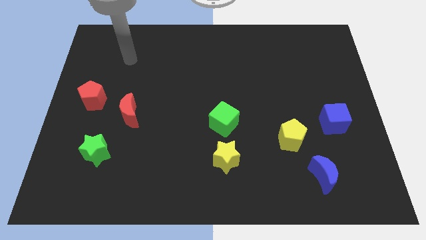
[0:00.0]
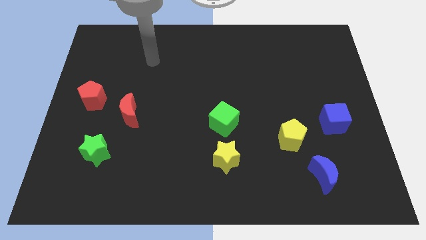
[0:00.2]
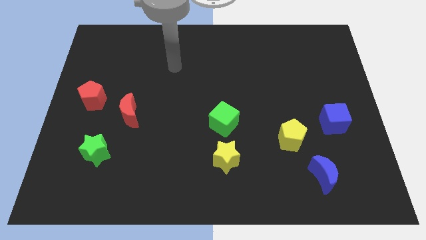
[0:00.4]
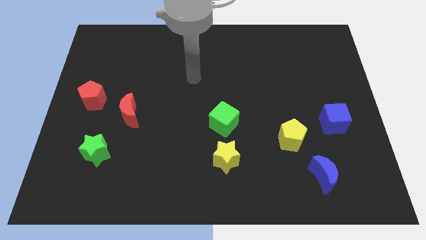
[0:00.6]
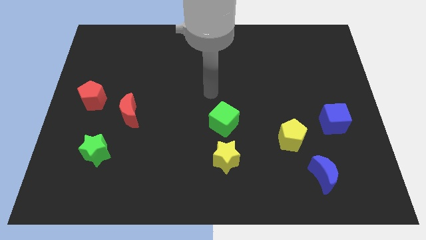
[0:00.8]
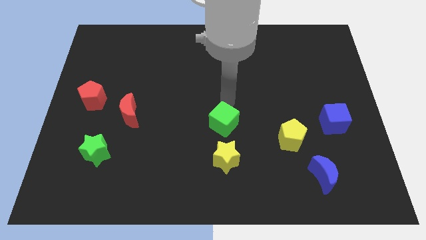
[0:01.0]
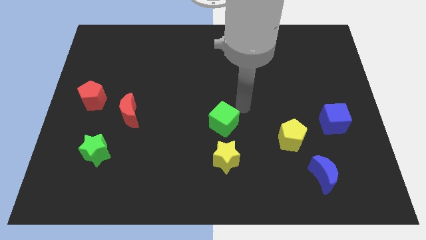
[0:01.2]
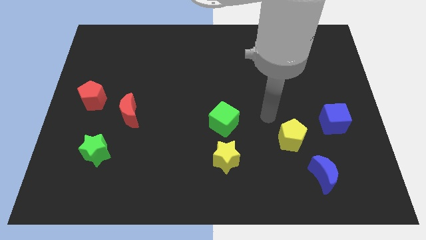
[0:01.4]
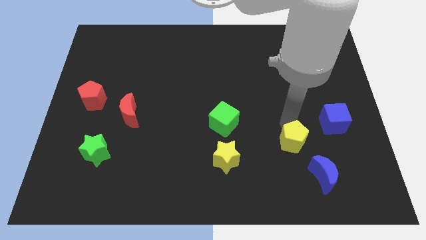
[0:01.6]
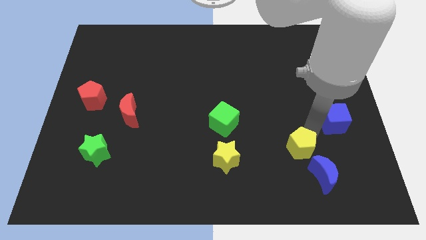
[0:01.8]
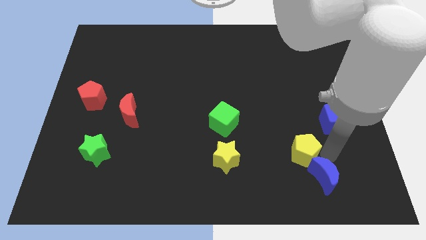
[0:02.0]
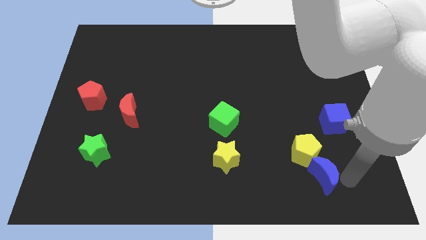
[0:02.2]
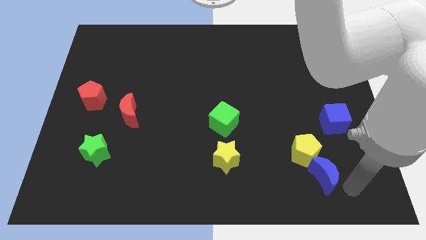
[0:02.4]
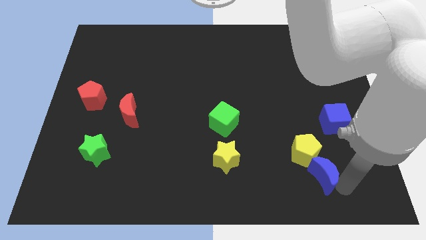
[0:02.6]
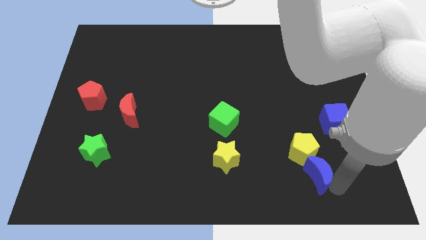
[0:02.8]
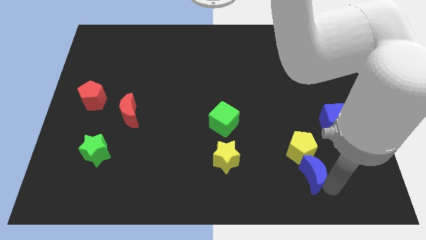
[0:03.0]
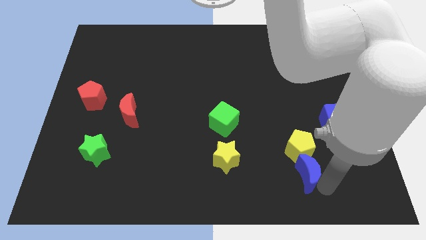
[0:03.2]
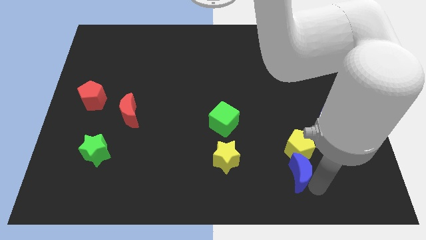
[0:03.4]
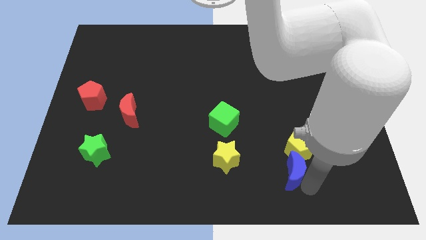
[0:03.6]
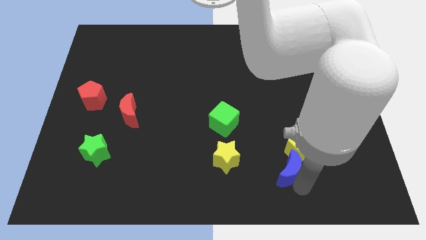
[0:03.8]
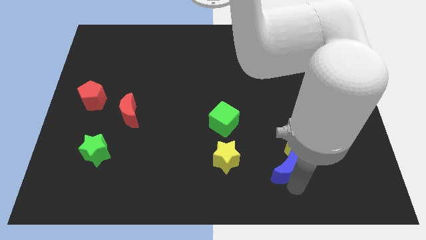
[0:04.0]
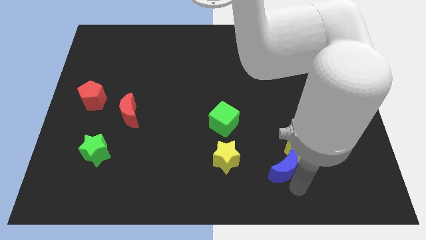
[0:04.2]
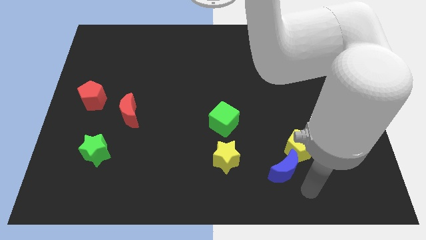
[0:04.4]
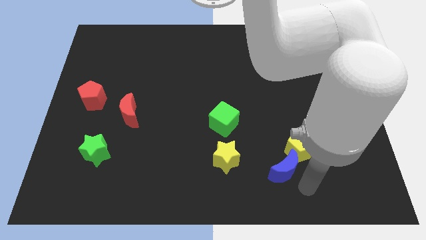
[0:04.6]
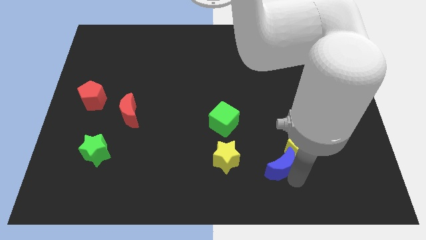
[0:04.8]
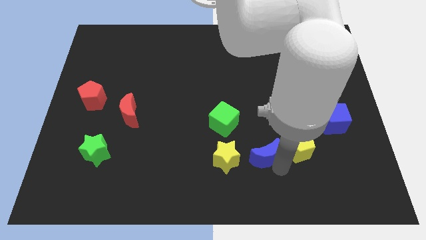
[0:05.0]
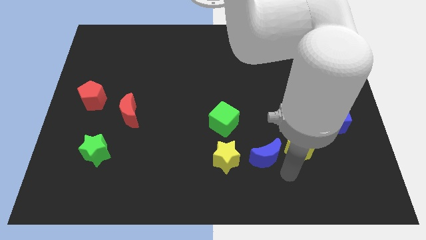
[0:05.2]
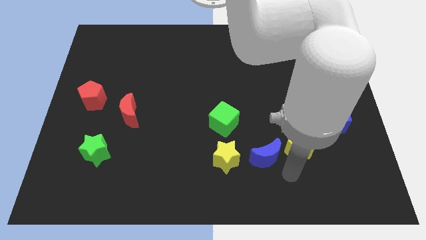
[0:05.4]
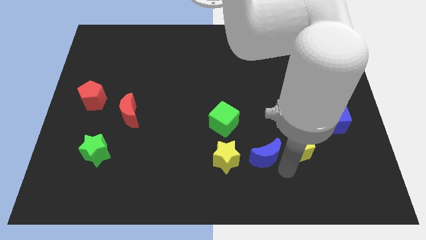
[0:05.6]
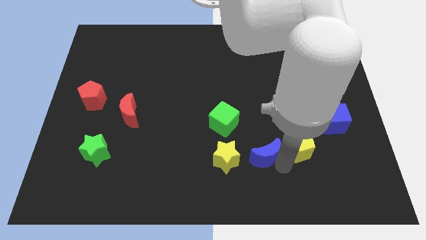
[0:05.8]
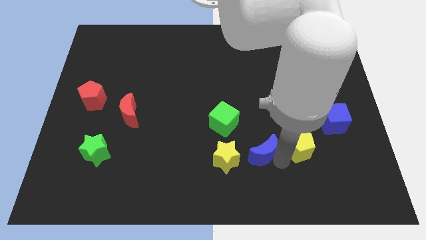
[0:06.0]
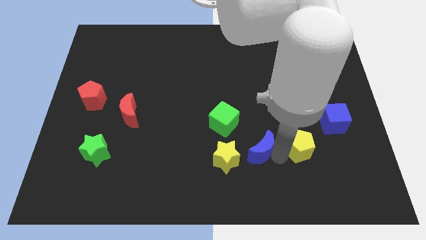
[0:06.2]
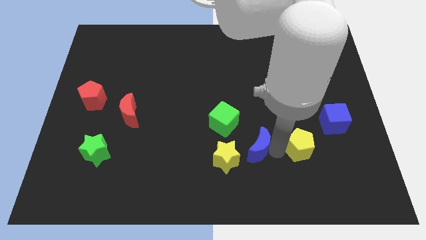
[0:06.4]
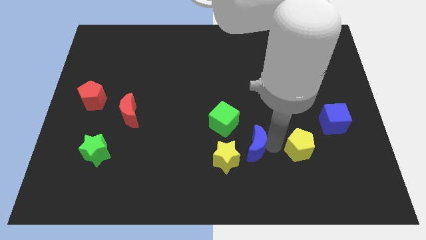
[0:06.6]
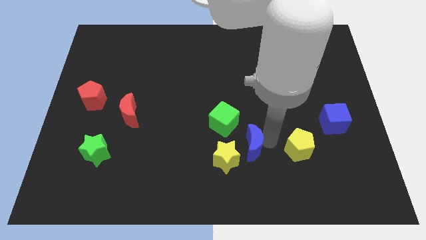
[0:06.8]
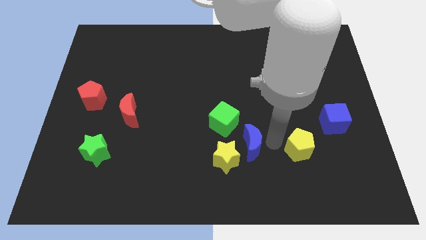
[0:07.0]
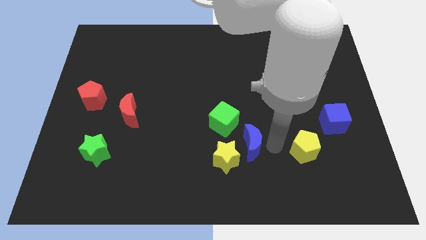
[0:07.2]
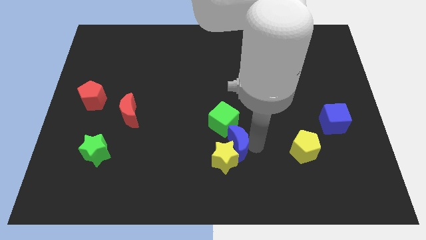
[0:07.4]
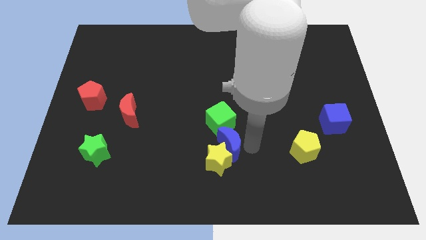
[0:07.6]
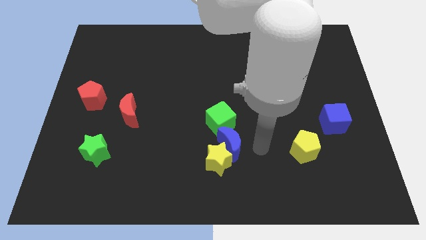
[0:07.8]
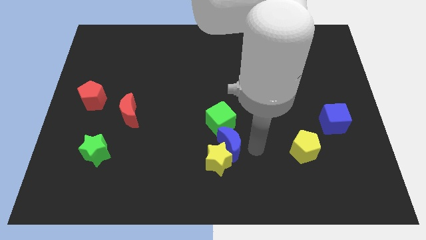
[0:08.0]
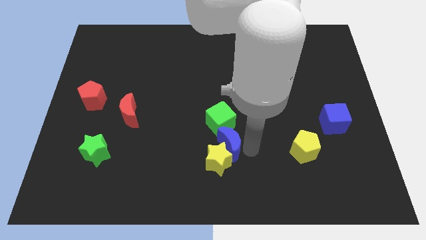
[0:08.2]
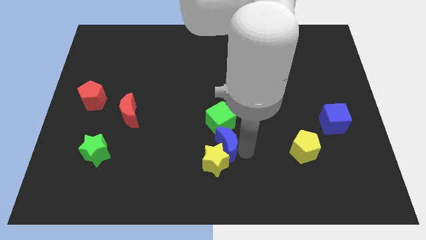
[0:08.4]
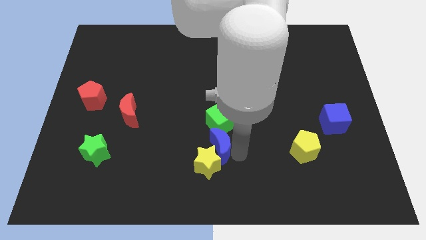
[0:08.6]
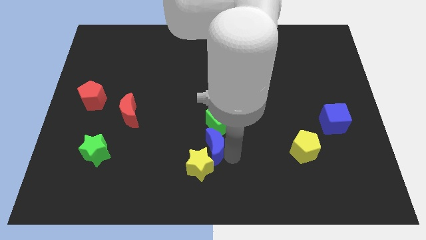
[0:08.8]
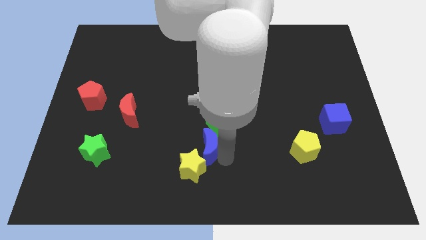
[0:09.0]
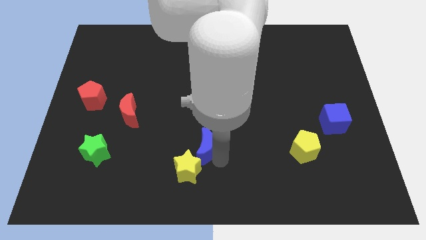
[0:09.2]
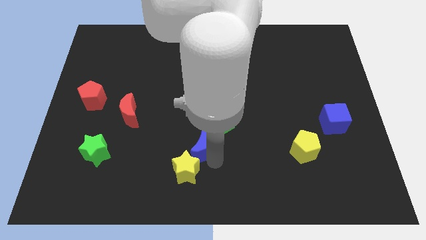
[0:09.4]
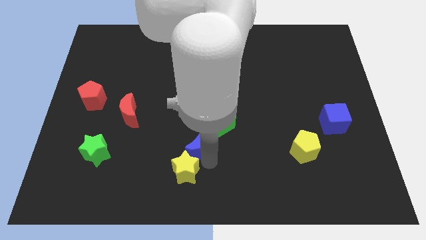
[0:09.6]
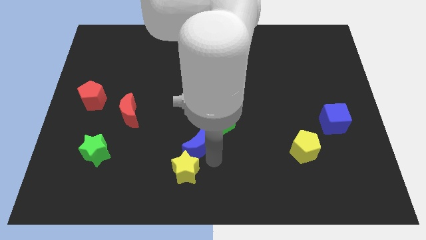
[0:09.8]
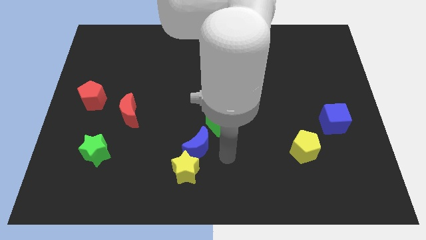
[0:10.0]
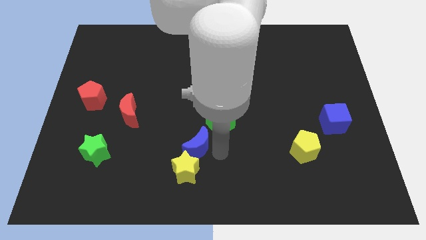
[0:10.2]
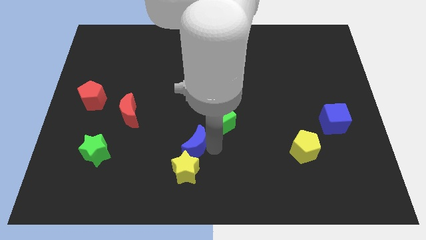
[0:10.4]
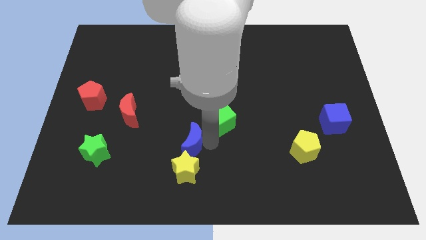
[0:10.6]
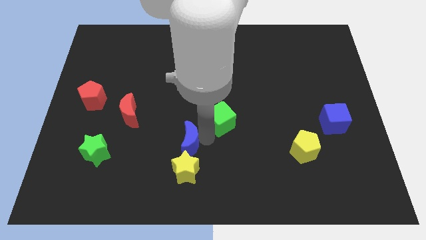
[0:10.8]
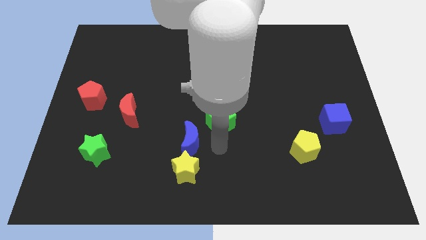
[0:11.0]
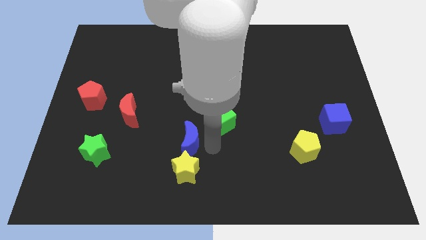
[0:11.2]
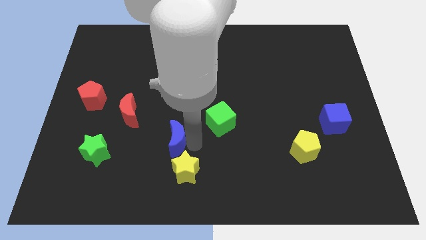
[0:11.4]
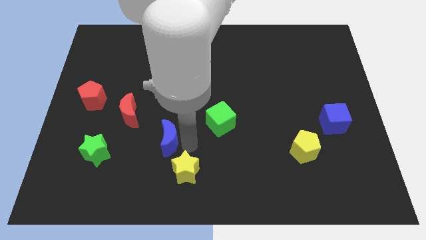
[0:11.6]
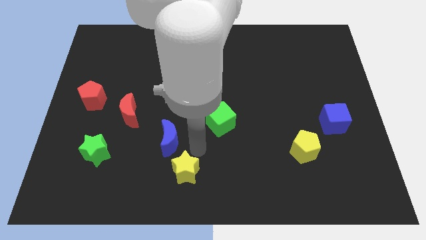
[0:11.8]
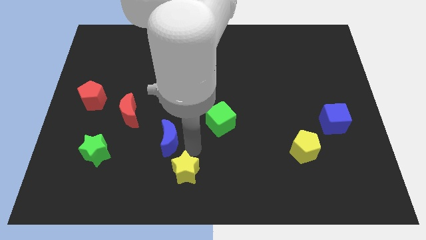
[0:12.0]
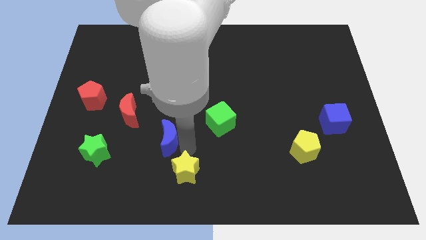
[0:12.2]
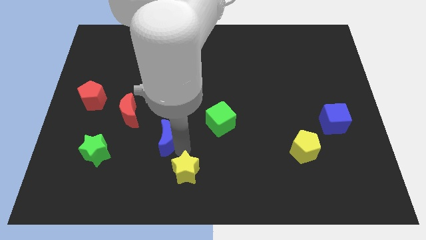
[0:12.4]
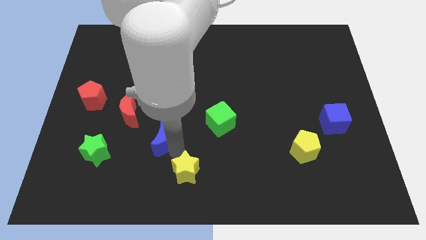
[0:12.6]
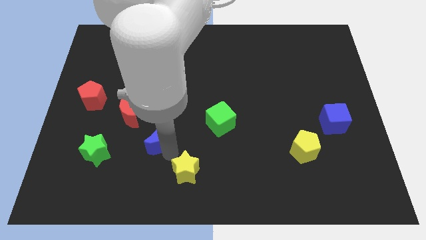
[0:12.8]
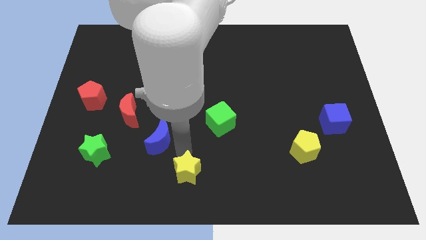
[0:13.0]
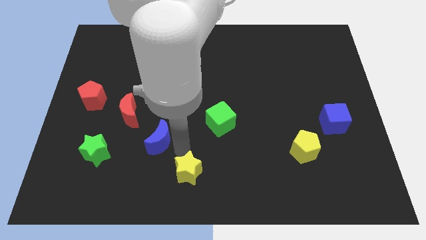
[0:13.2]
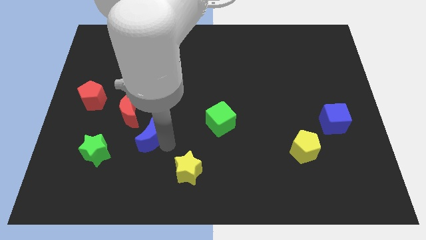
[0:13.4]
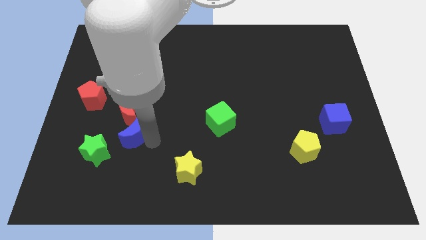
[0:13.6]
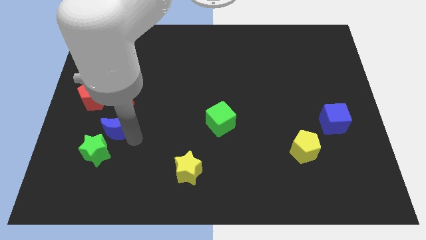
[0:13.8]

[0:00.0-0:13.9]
move the blue moon to the bottom right side of the red pentagon
